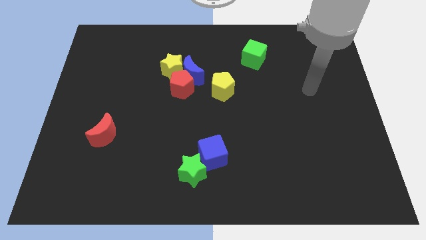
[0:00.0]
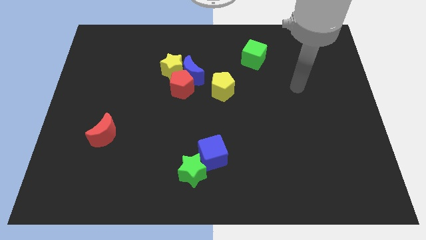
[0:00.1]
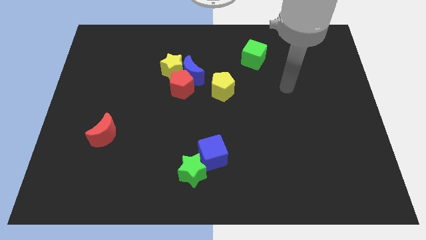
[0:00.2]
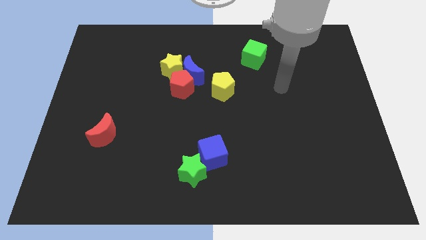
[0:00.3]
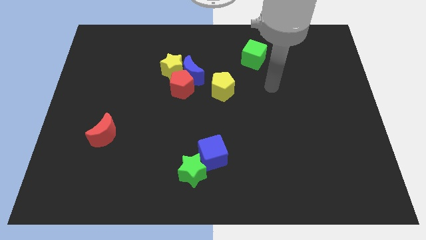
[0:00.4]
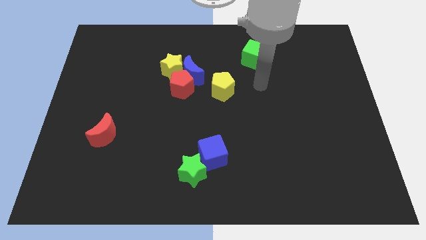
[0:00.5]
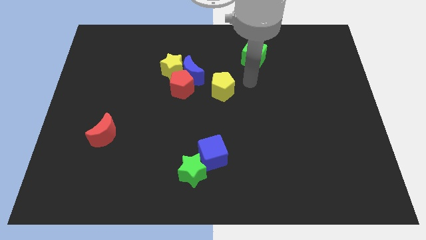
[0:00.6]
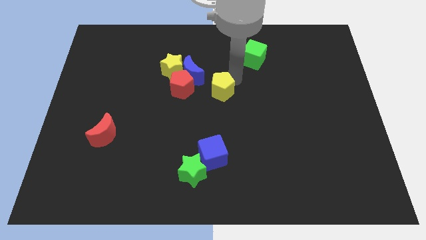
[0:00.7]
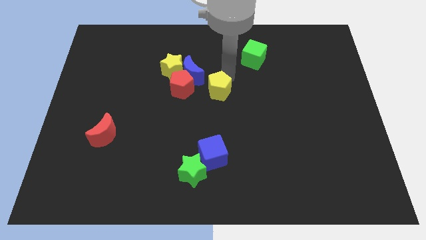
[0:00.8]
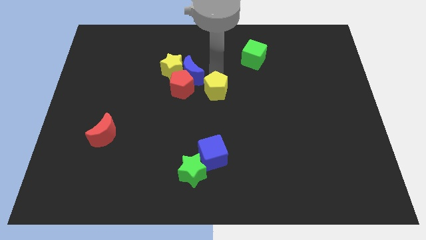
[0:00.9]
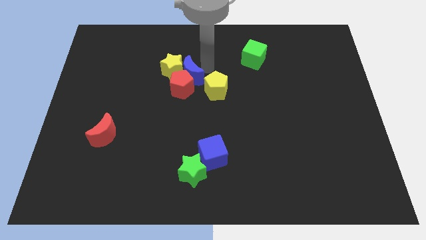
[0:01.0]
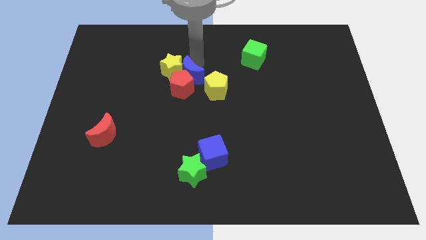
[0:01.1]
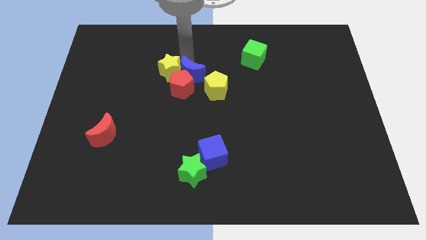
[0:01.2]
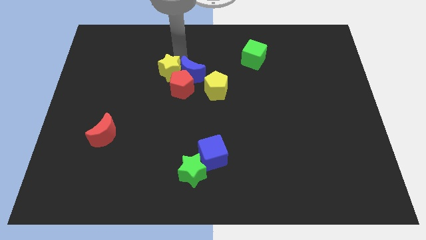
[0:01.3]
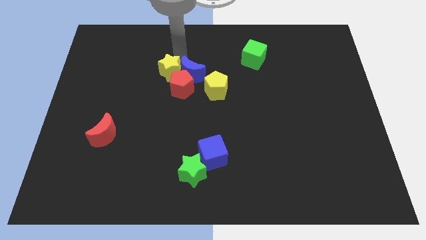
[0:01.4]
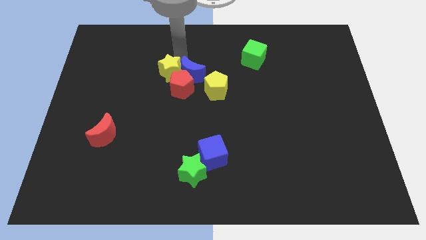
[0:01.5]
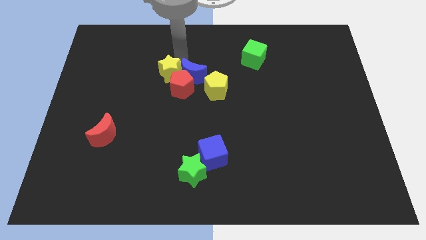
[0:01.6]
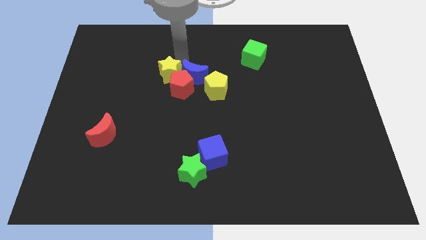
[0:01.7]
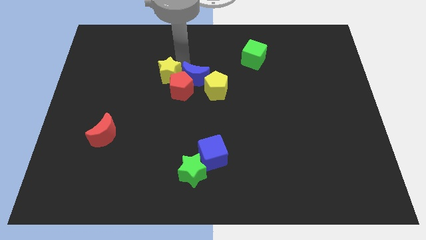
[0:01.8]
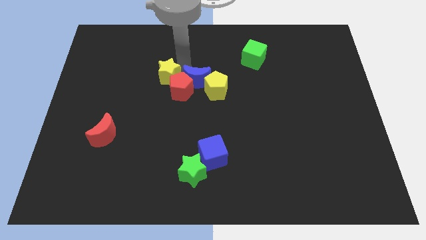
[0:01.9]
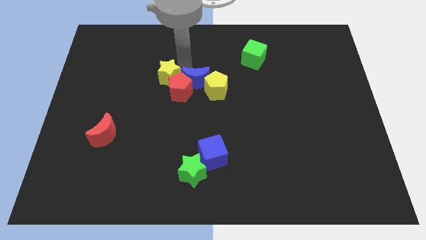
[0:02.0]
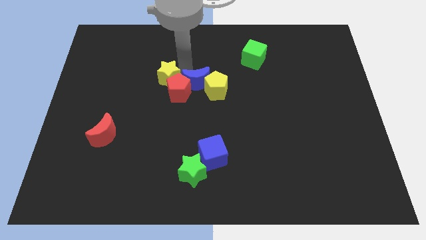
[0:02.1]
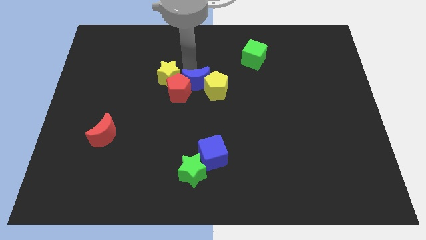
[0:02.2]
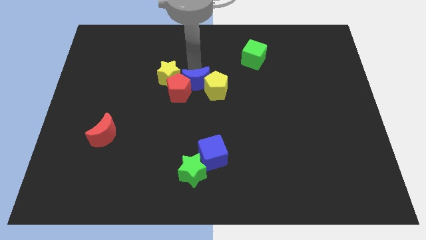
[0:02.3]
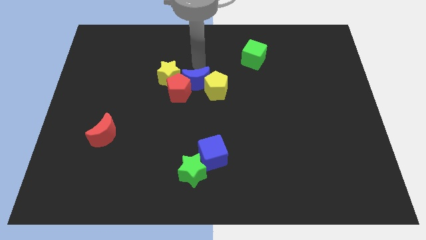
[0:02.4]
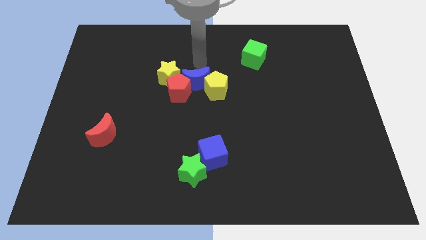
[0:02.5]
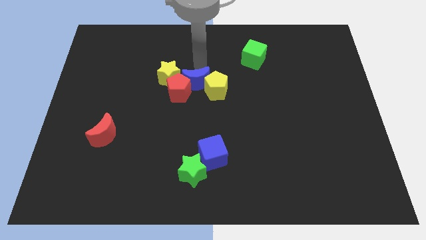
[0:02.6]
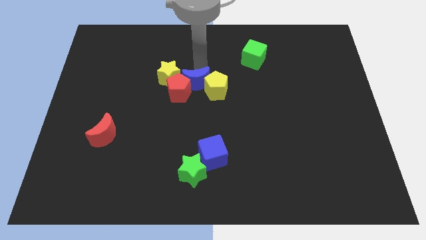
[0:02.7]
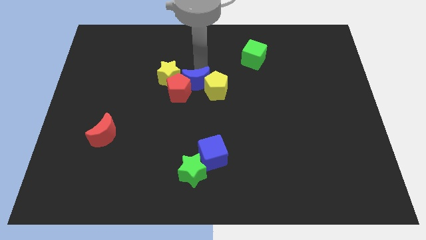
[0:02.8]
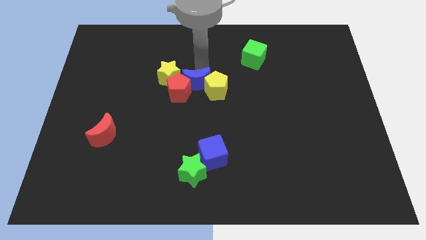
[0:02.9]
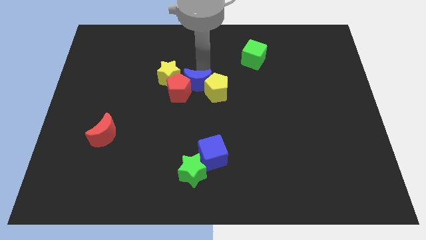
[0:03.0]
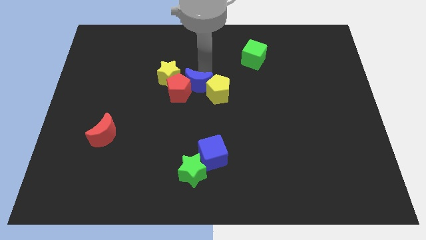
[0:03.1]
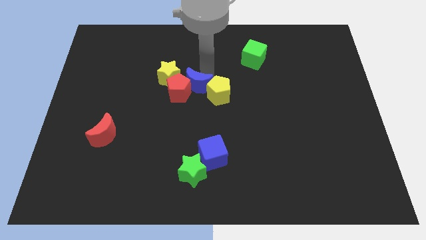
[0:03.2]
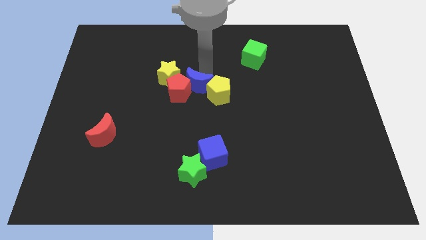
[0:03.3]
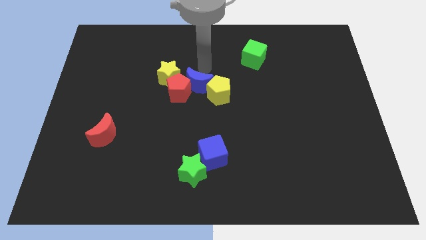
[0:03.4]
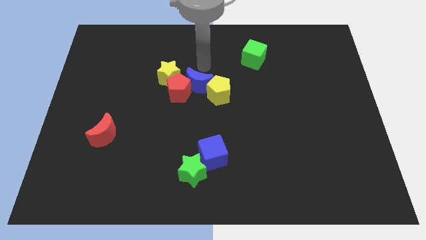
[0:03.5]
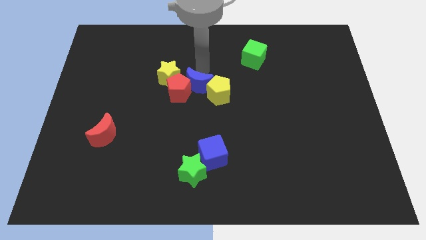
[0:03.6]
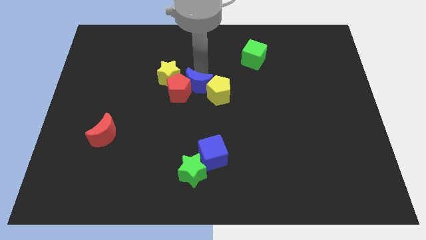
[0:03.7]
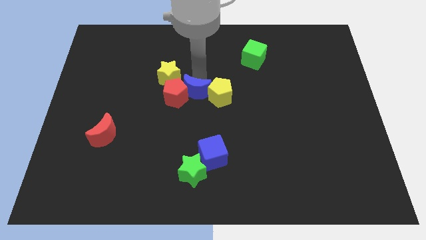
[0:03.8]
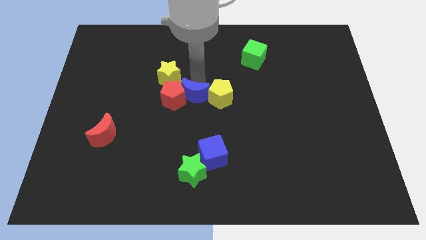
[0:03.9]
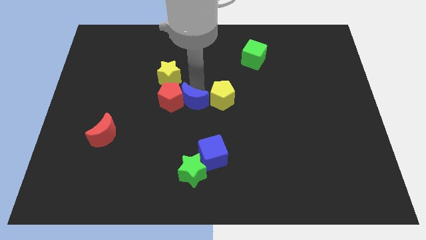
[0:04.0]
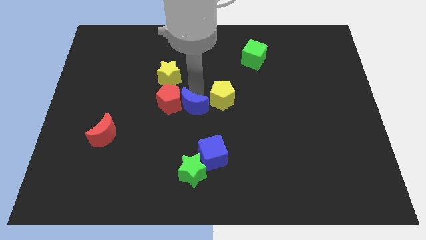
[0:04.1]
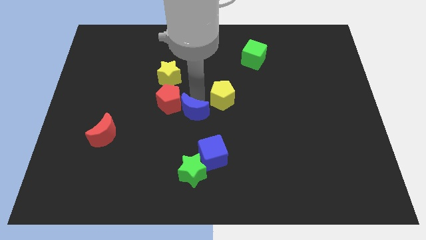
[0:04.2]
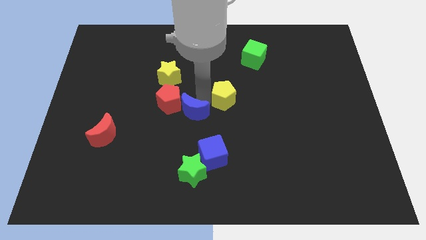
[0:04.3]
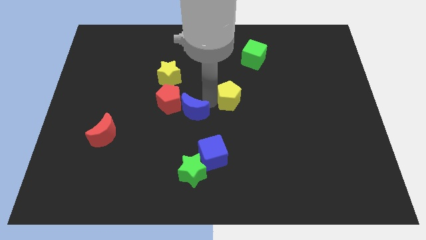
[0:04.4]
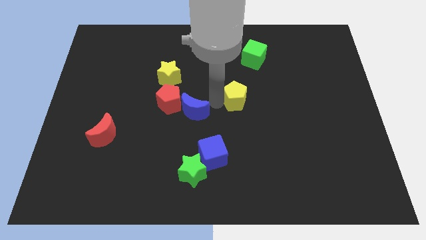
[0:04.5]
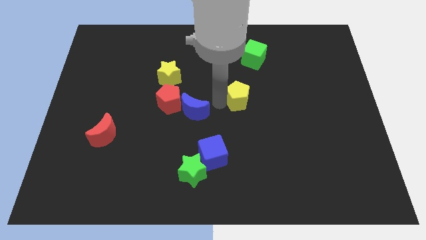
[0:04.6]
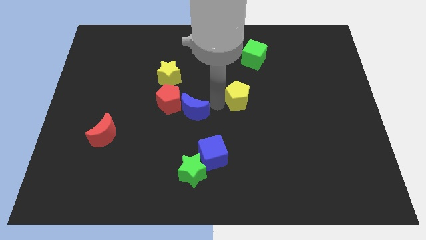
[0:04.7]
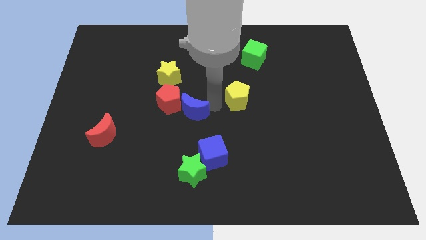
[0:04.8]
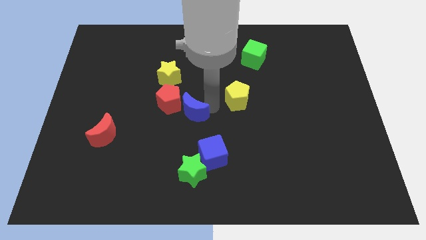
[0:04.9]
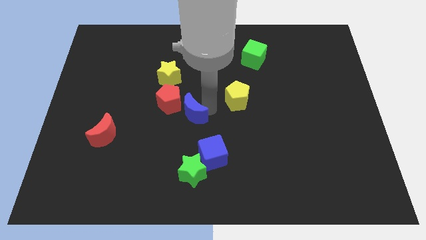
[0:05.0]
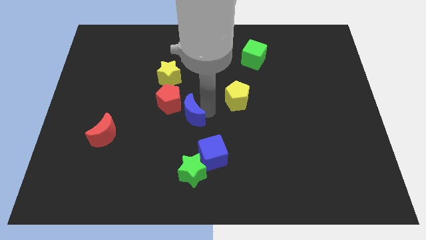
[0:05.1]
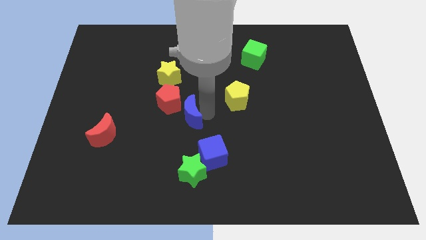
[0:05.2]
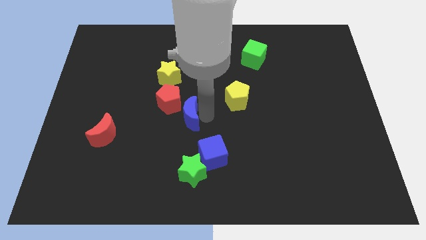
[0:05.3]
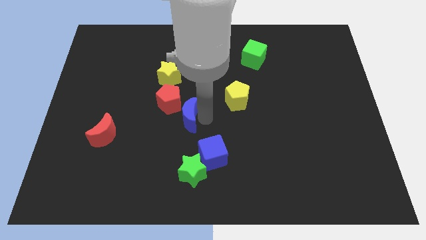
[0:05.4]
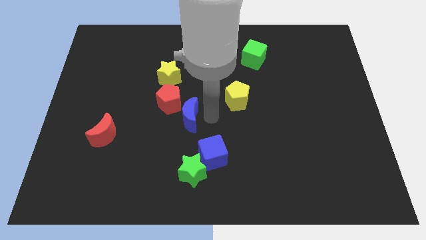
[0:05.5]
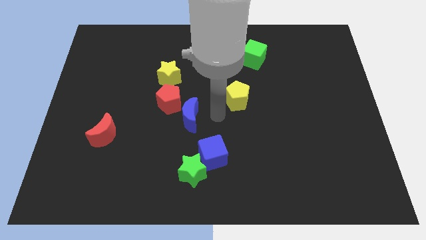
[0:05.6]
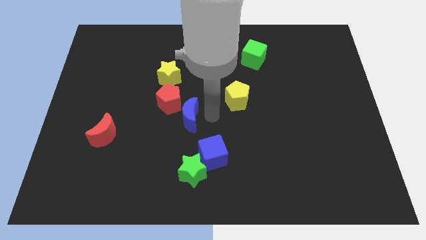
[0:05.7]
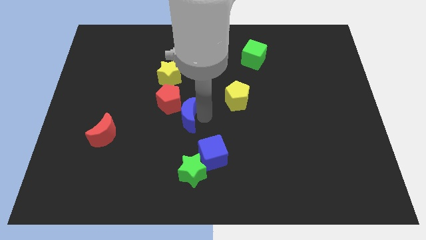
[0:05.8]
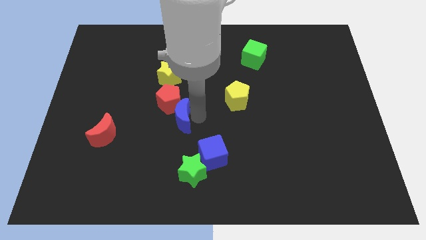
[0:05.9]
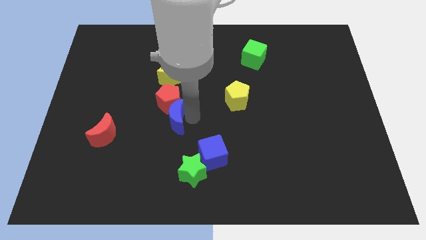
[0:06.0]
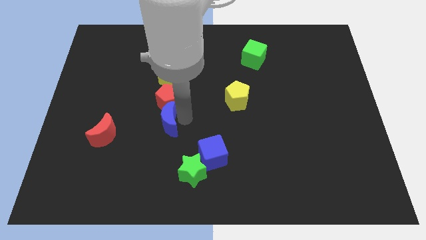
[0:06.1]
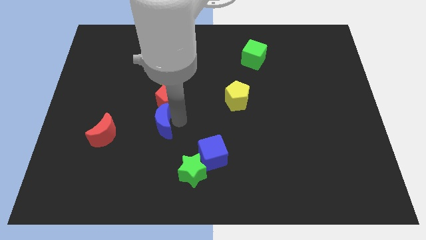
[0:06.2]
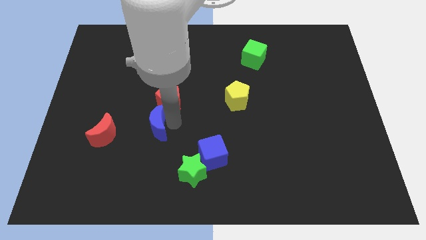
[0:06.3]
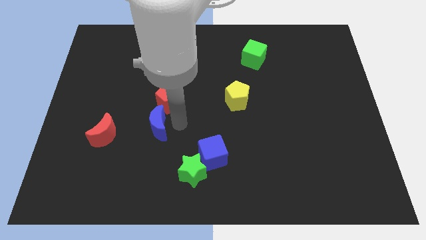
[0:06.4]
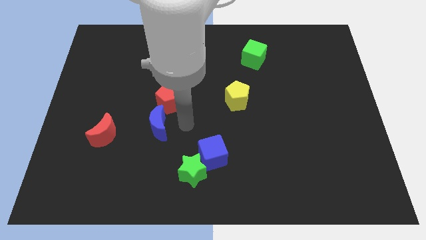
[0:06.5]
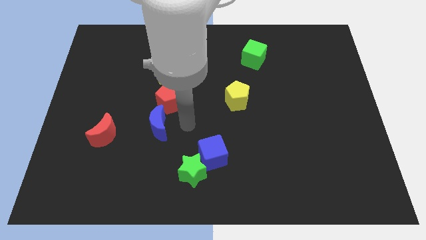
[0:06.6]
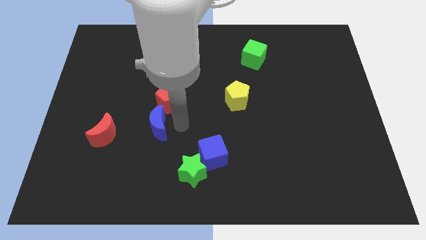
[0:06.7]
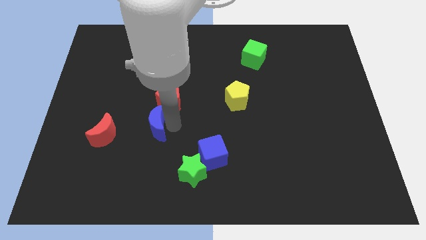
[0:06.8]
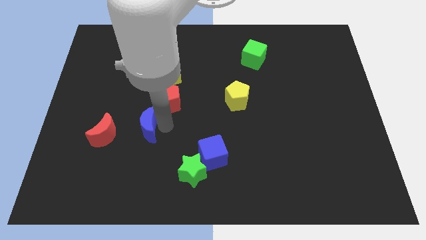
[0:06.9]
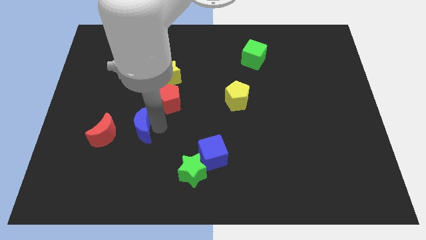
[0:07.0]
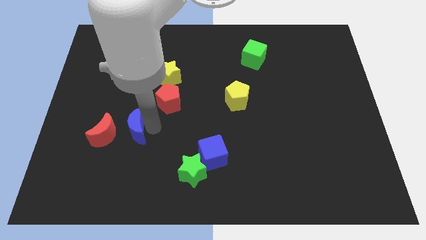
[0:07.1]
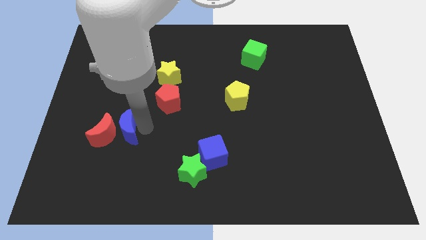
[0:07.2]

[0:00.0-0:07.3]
move the blue moon towards the red moon

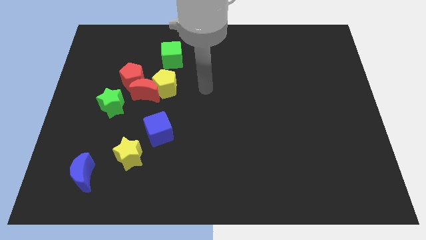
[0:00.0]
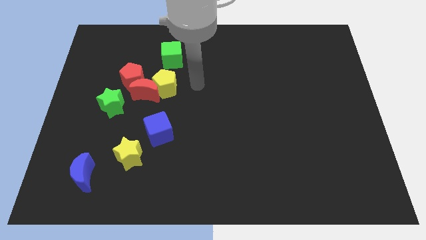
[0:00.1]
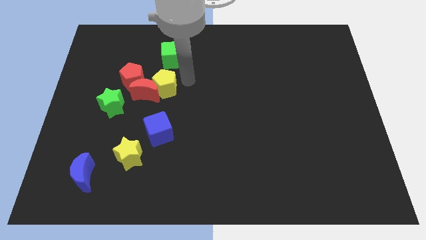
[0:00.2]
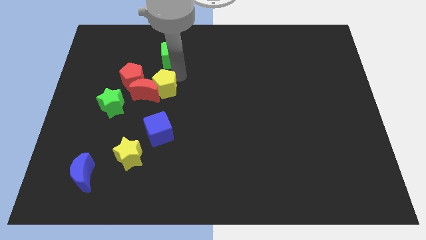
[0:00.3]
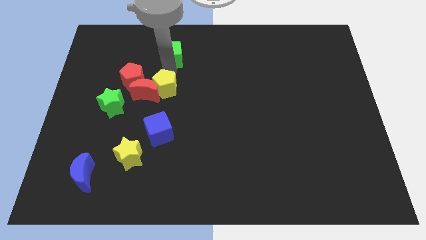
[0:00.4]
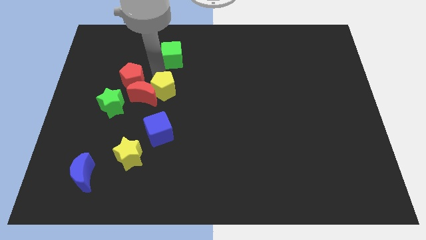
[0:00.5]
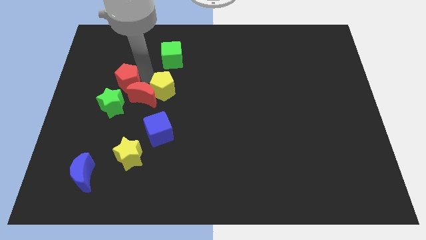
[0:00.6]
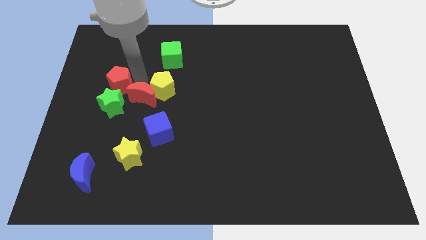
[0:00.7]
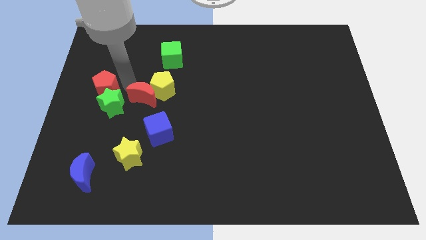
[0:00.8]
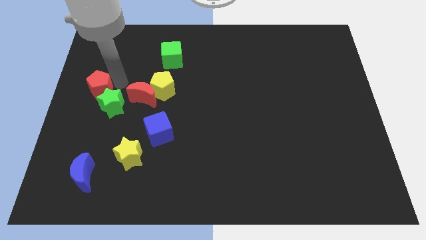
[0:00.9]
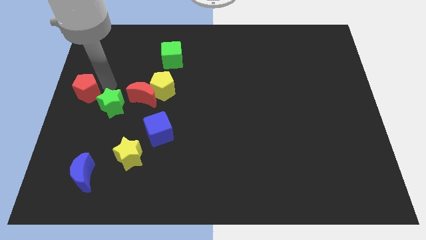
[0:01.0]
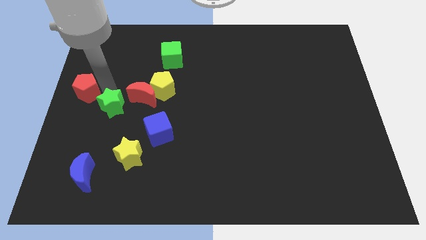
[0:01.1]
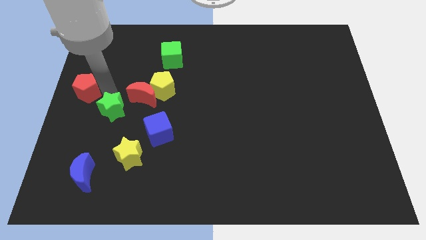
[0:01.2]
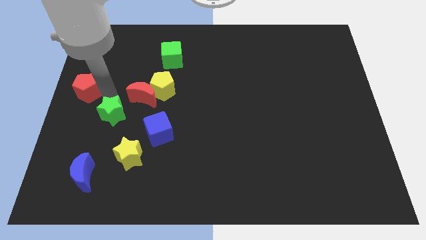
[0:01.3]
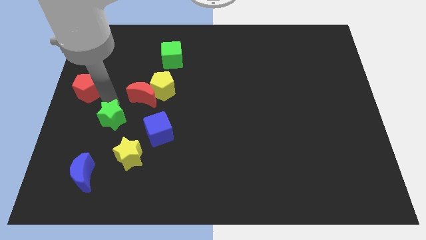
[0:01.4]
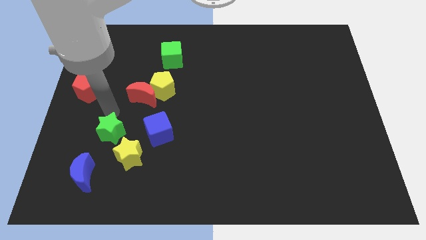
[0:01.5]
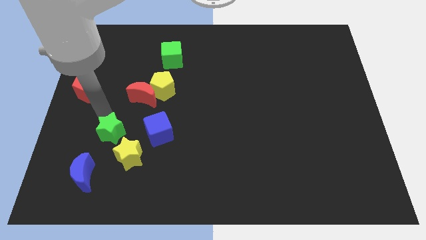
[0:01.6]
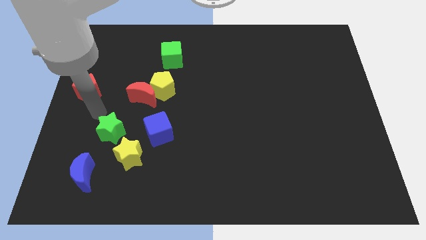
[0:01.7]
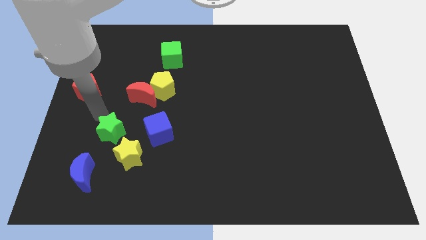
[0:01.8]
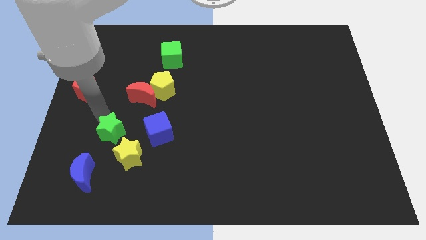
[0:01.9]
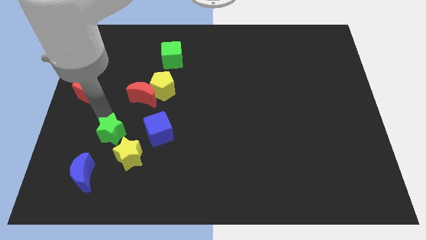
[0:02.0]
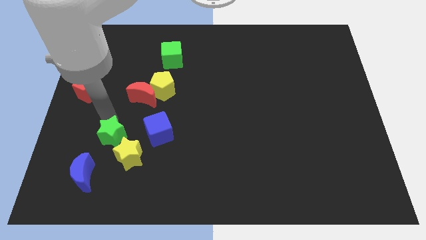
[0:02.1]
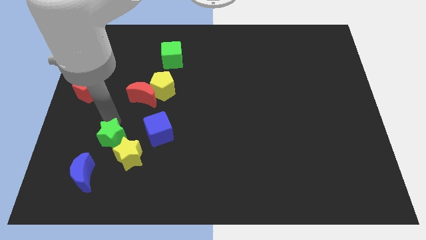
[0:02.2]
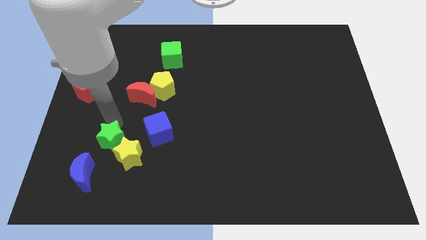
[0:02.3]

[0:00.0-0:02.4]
slide the green star towards the yellow star
